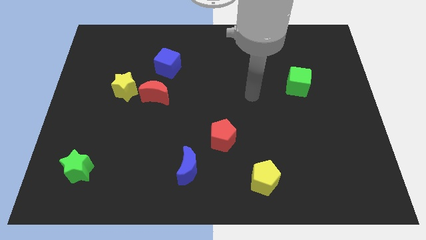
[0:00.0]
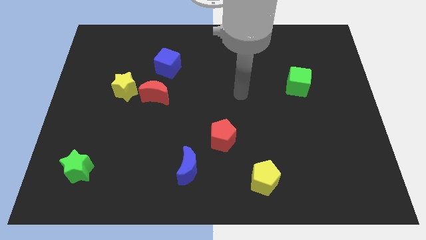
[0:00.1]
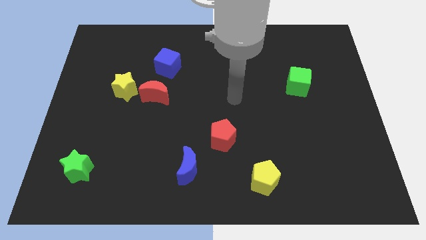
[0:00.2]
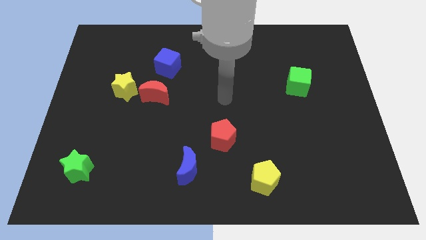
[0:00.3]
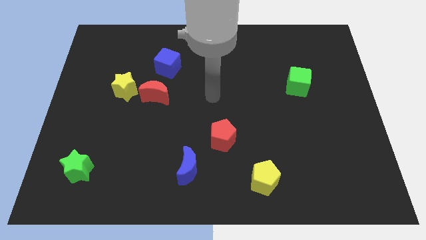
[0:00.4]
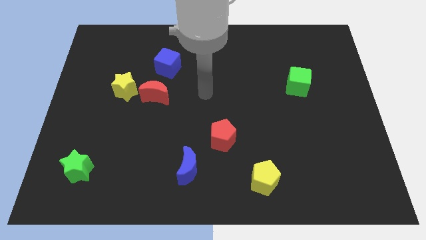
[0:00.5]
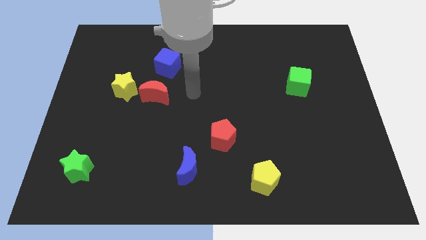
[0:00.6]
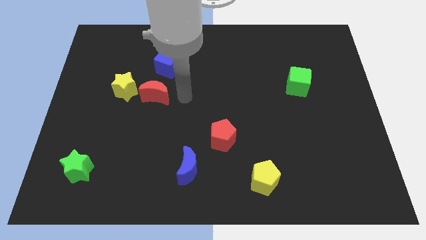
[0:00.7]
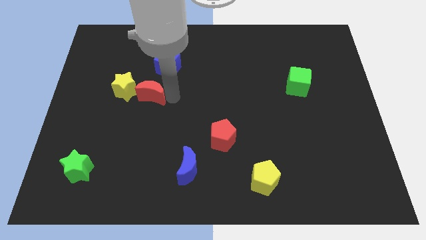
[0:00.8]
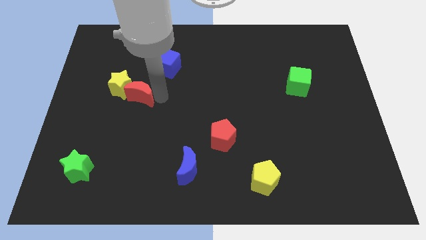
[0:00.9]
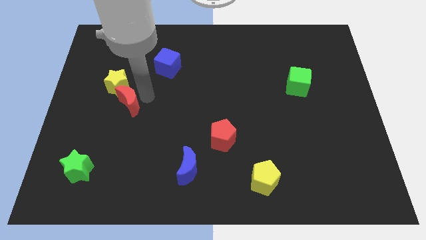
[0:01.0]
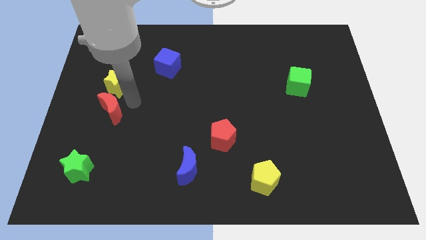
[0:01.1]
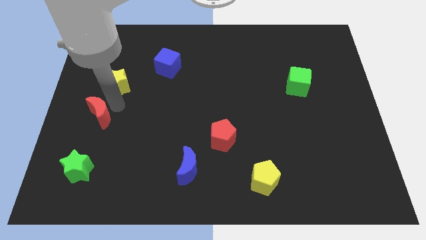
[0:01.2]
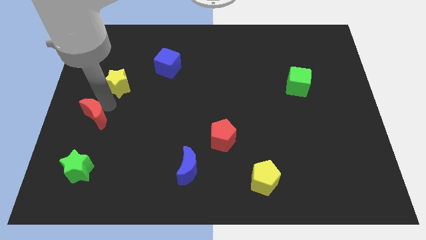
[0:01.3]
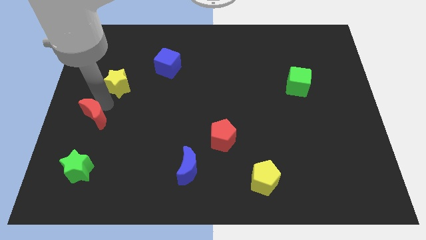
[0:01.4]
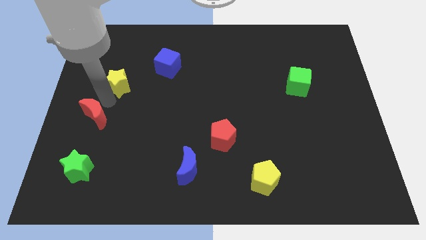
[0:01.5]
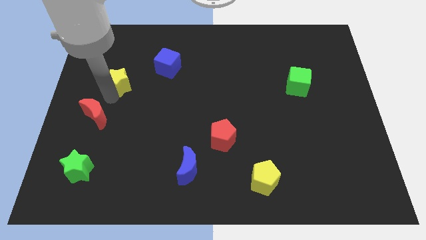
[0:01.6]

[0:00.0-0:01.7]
move the yellow star away from the red moon

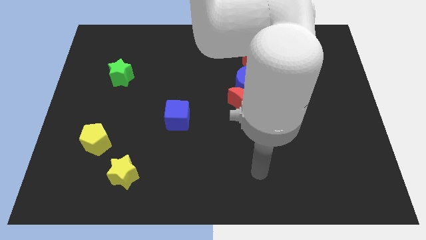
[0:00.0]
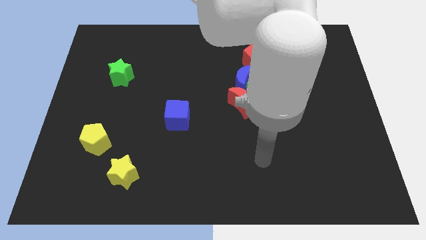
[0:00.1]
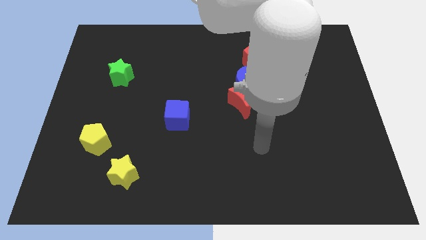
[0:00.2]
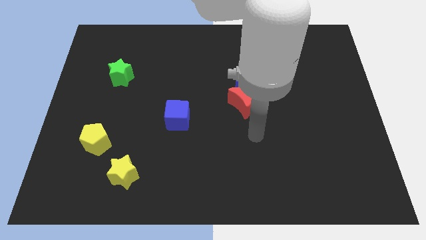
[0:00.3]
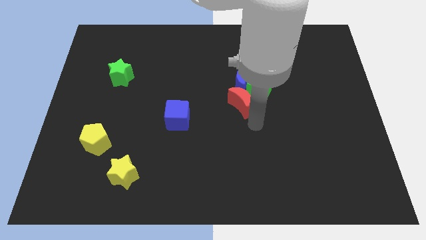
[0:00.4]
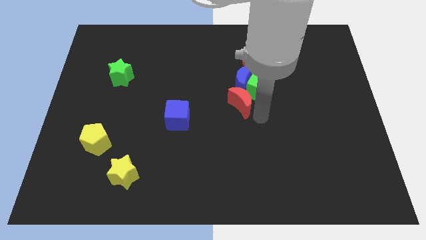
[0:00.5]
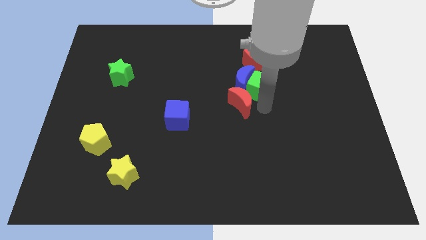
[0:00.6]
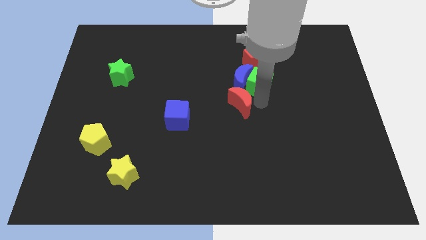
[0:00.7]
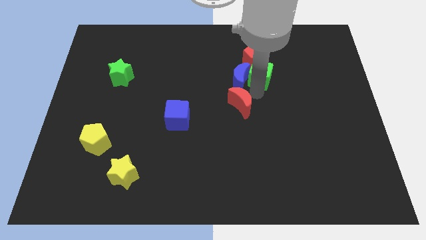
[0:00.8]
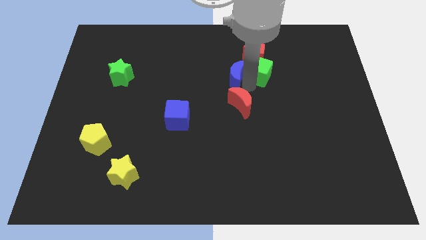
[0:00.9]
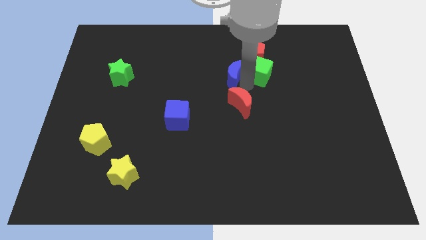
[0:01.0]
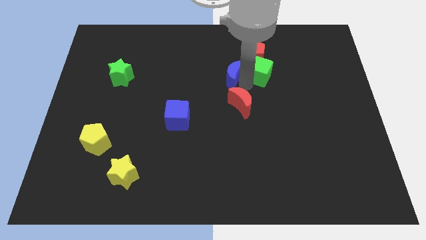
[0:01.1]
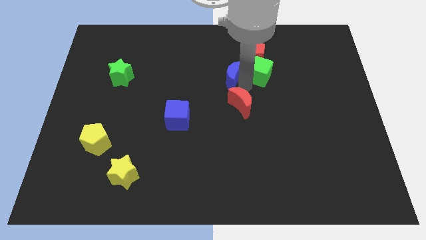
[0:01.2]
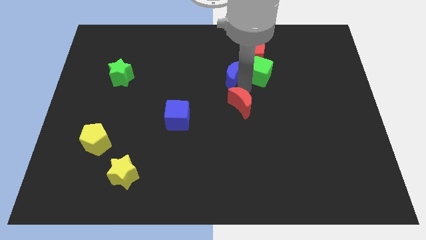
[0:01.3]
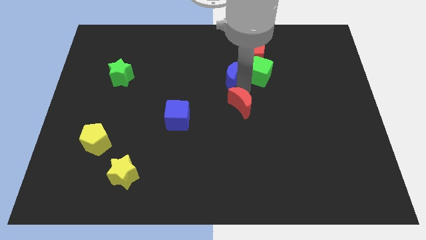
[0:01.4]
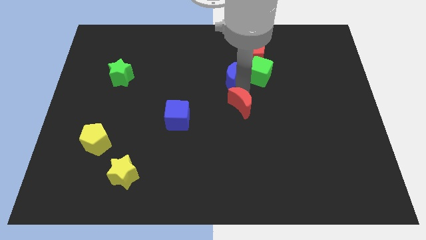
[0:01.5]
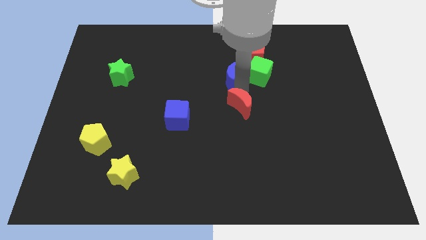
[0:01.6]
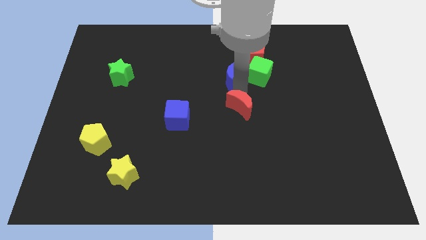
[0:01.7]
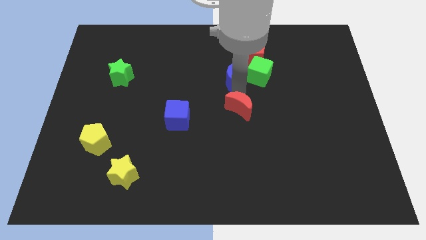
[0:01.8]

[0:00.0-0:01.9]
pull the red moon apart from the green cube and blue moon

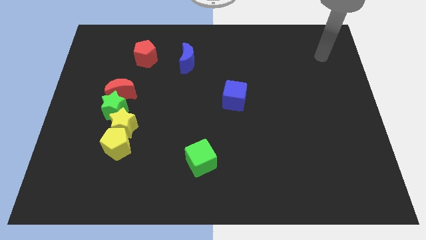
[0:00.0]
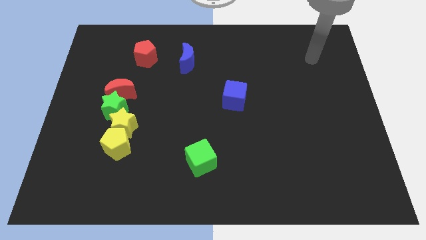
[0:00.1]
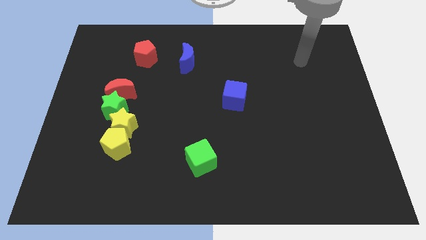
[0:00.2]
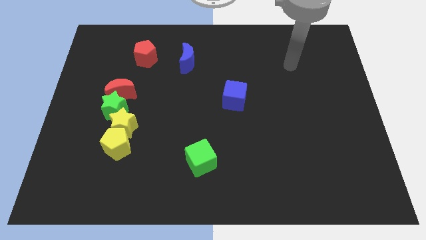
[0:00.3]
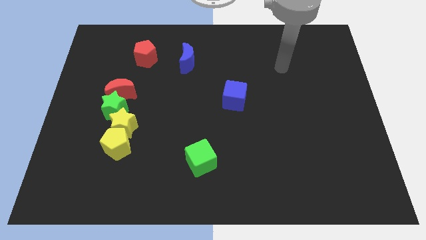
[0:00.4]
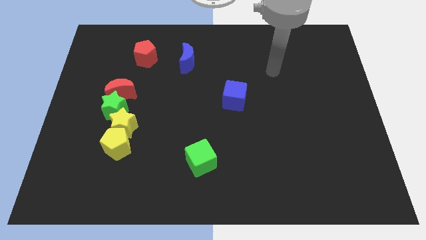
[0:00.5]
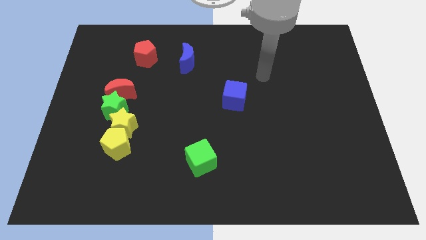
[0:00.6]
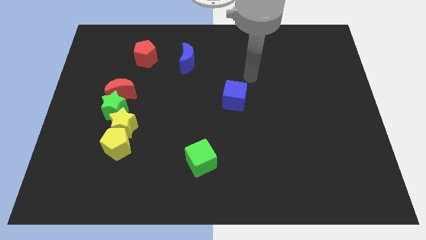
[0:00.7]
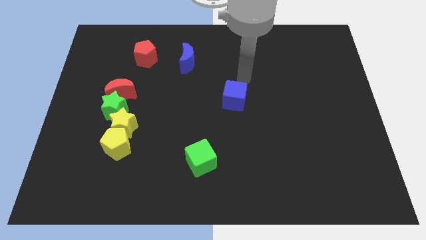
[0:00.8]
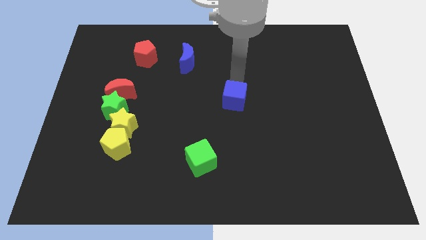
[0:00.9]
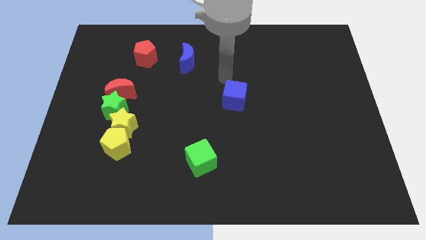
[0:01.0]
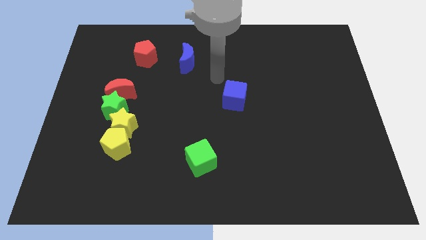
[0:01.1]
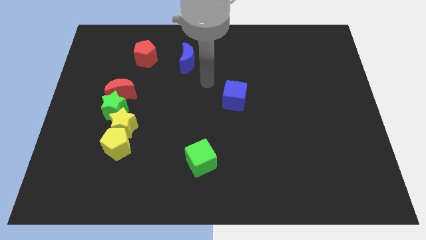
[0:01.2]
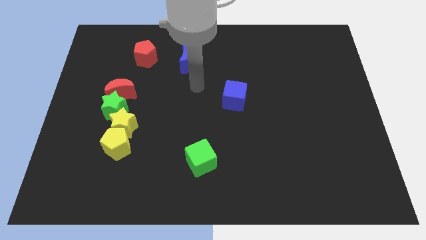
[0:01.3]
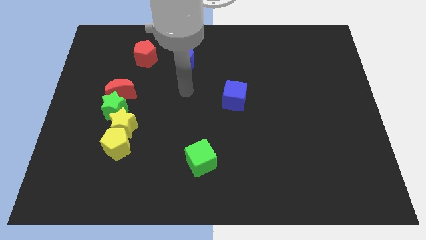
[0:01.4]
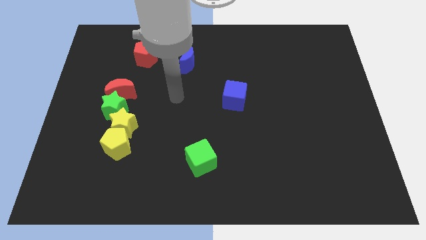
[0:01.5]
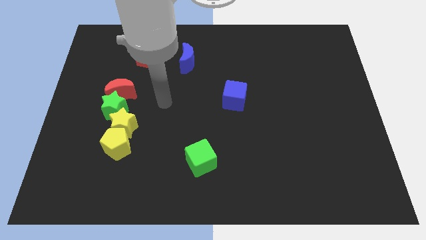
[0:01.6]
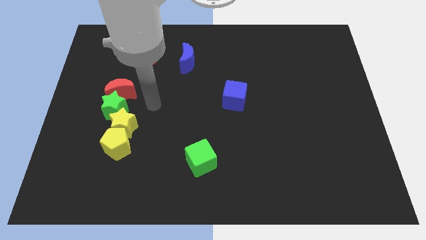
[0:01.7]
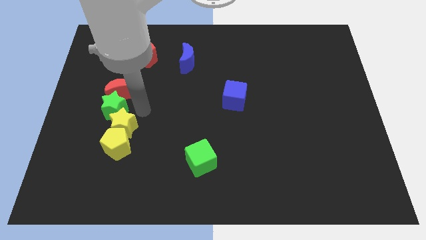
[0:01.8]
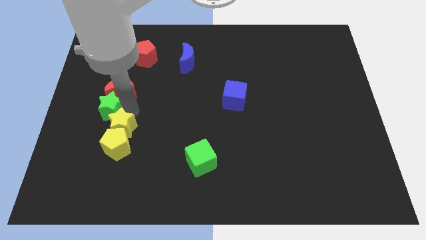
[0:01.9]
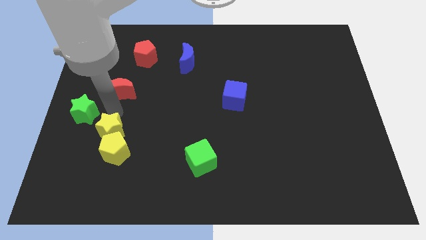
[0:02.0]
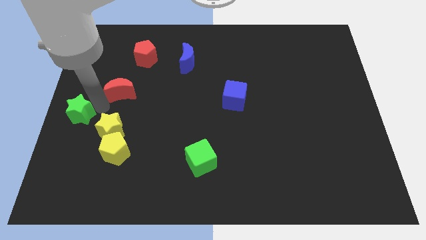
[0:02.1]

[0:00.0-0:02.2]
separate the red moon from the green star

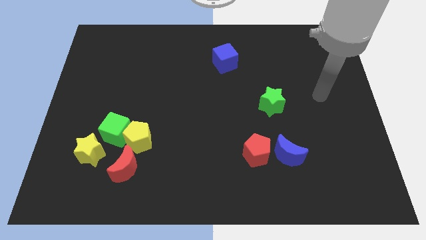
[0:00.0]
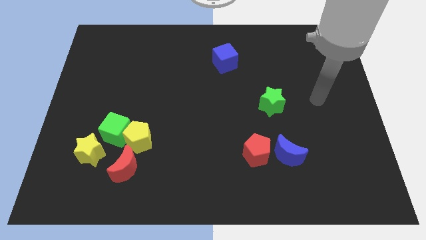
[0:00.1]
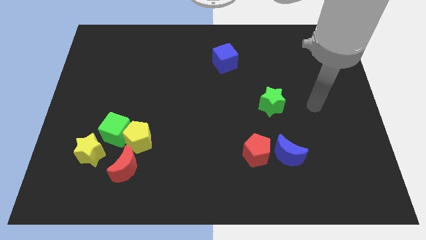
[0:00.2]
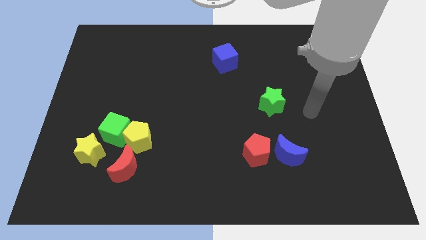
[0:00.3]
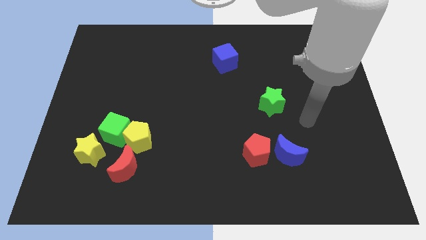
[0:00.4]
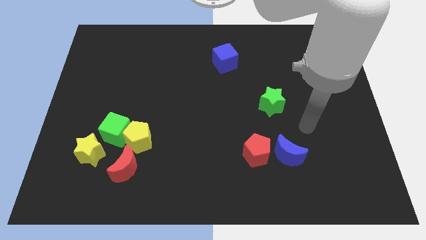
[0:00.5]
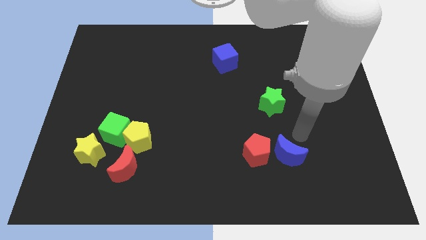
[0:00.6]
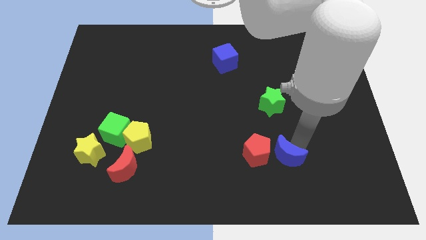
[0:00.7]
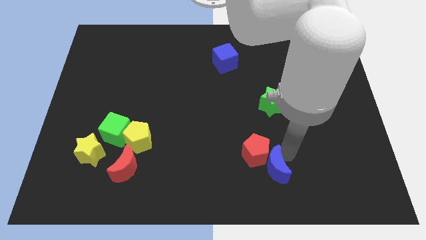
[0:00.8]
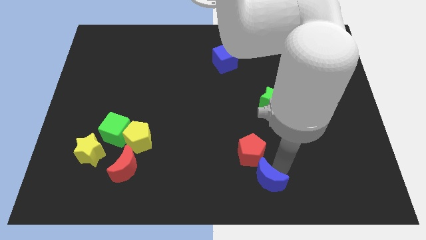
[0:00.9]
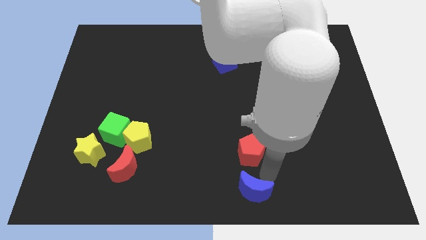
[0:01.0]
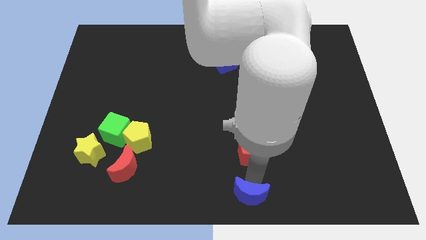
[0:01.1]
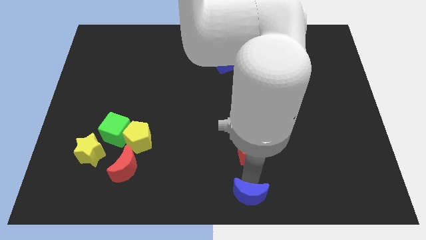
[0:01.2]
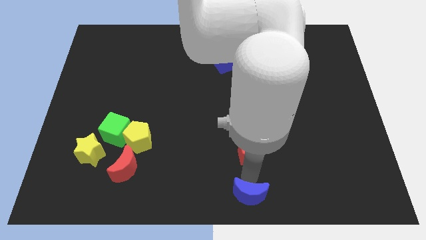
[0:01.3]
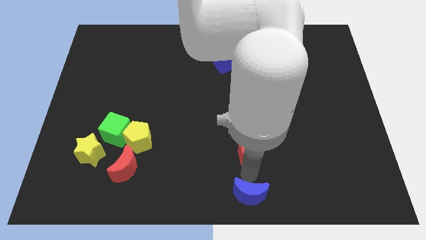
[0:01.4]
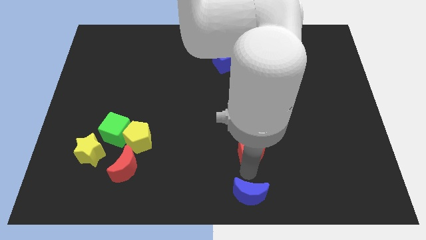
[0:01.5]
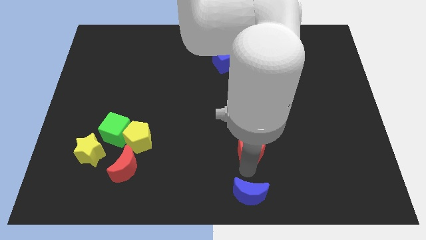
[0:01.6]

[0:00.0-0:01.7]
pull the red pentagon apart from the blue moon

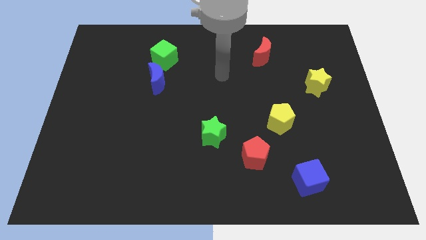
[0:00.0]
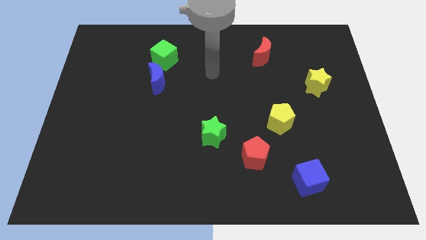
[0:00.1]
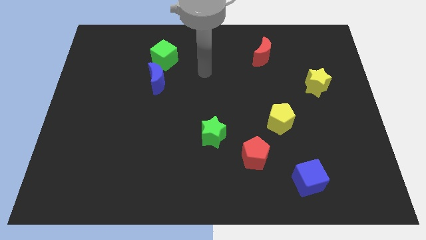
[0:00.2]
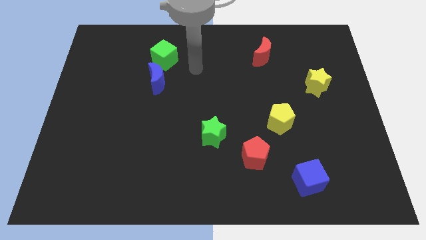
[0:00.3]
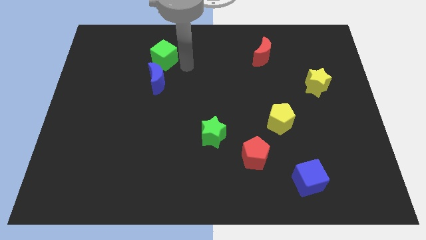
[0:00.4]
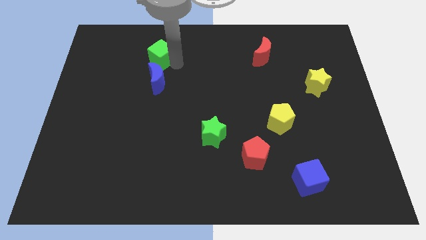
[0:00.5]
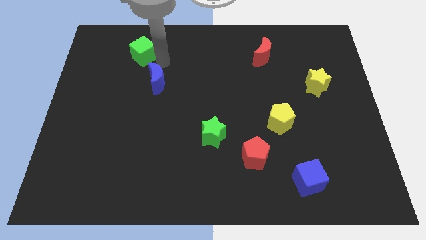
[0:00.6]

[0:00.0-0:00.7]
pull the blue moon apart from the green cube

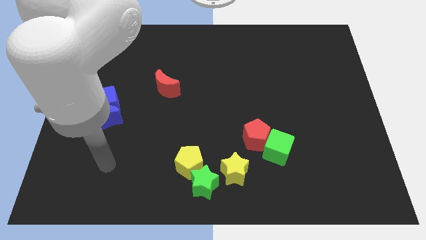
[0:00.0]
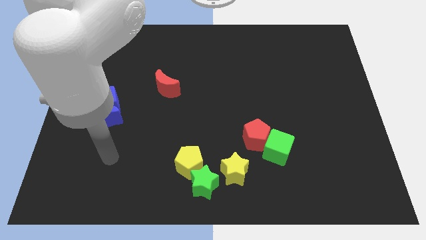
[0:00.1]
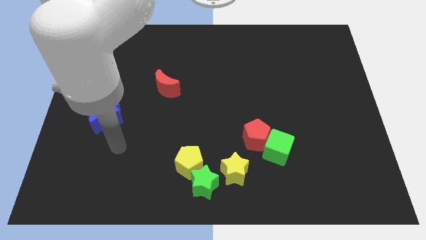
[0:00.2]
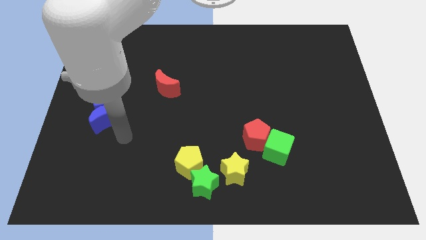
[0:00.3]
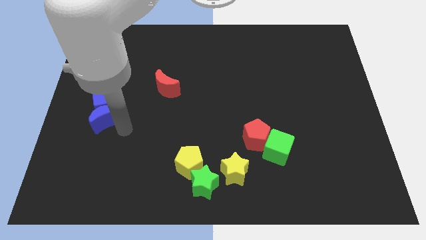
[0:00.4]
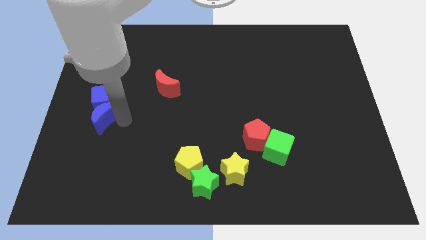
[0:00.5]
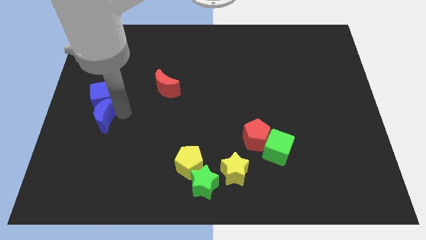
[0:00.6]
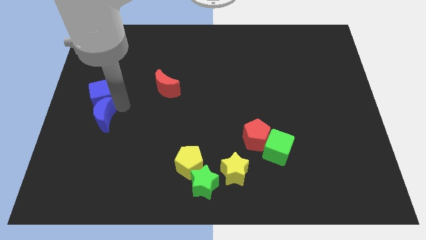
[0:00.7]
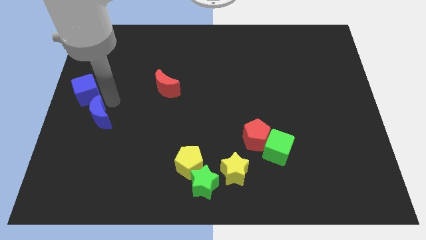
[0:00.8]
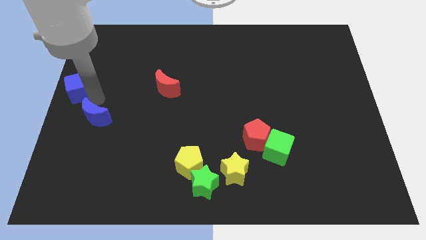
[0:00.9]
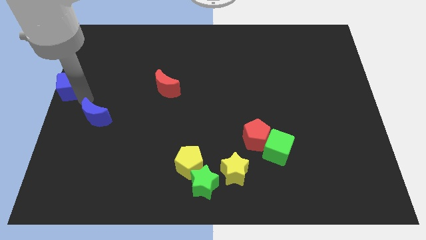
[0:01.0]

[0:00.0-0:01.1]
pull the blue moon apart from the blue cube
